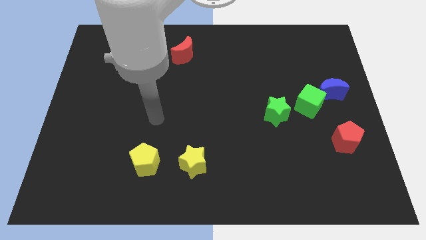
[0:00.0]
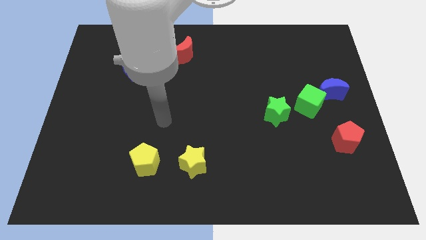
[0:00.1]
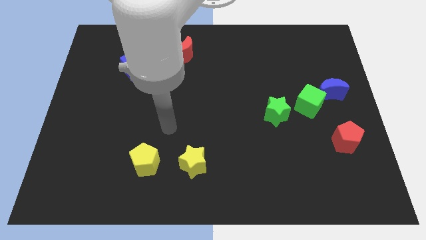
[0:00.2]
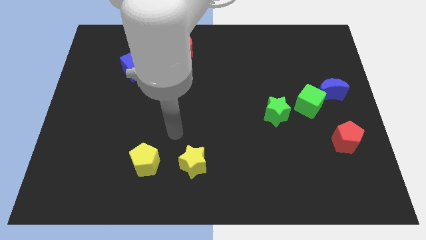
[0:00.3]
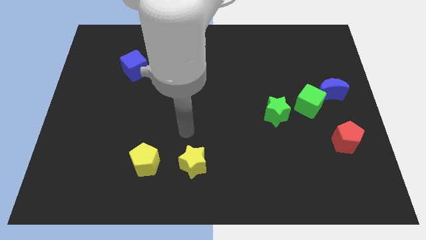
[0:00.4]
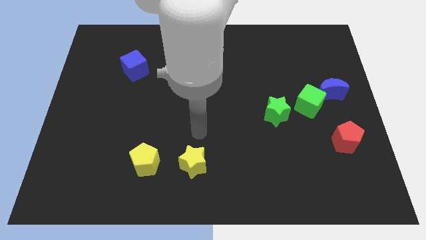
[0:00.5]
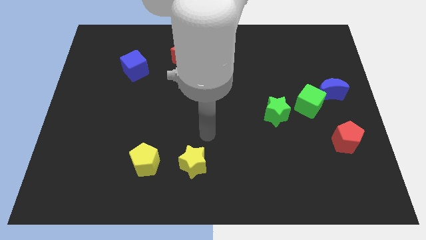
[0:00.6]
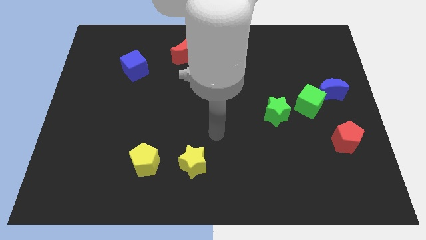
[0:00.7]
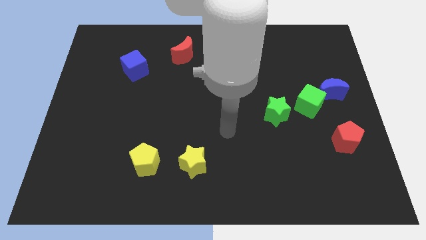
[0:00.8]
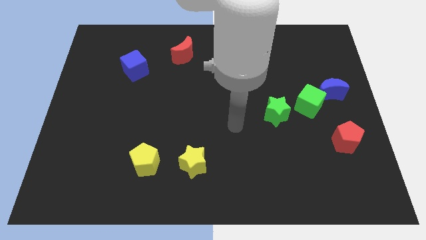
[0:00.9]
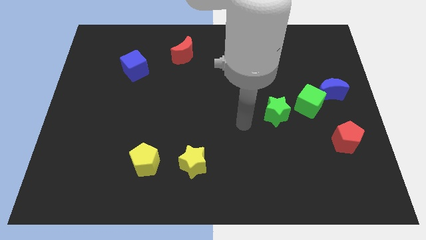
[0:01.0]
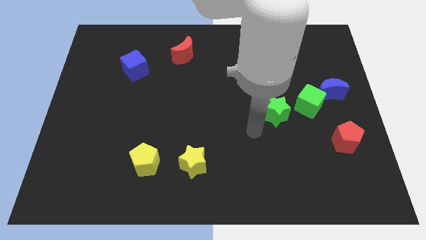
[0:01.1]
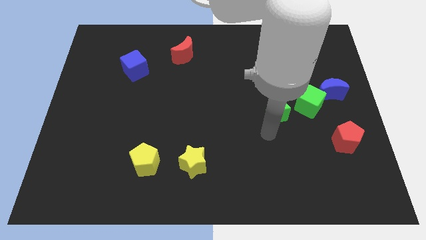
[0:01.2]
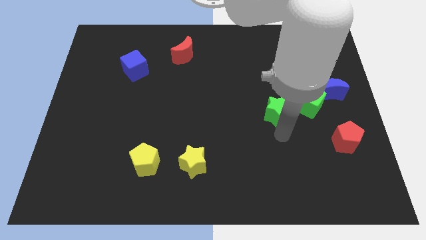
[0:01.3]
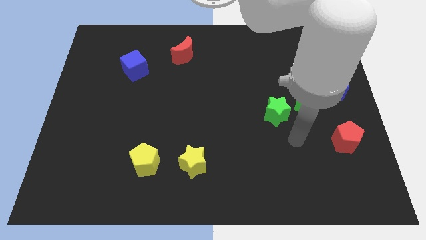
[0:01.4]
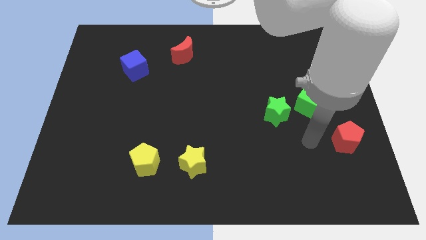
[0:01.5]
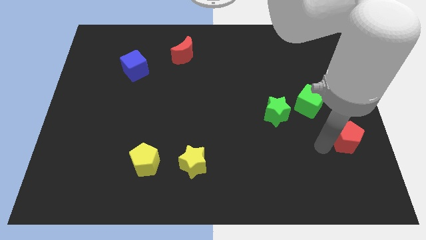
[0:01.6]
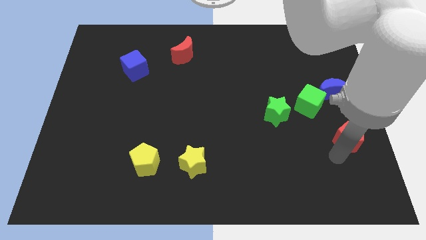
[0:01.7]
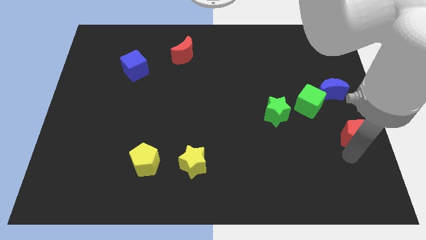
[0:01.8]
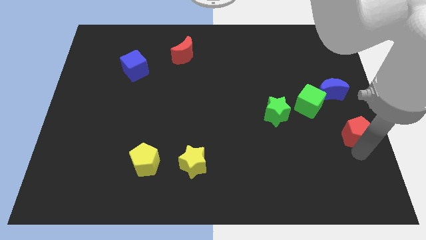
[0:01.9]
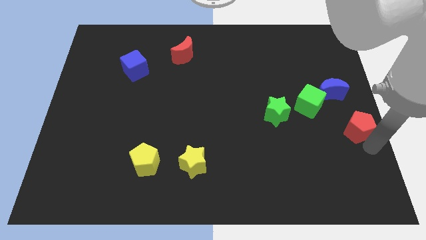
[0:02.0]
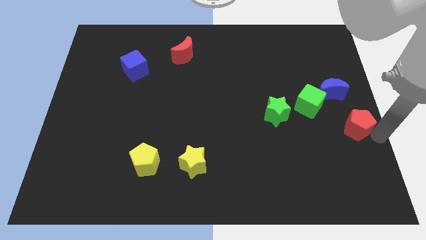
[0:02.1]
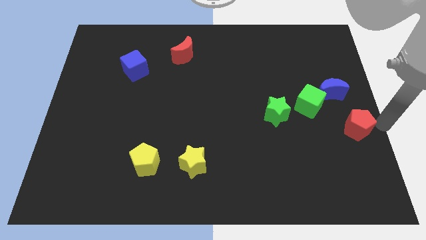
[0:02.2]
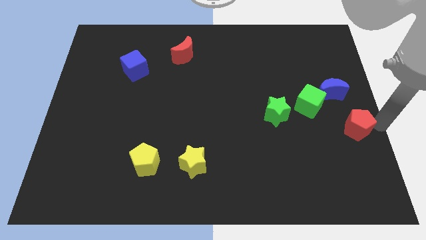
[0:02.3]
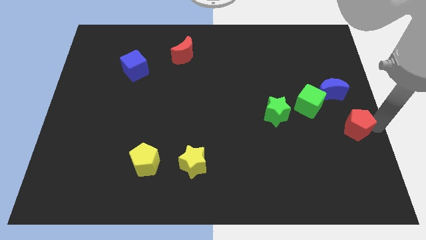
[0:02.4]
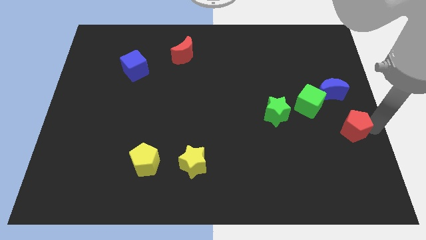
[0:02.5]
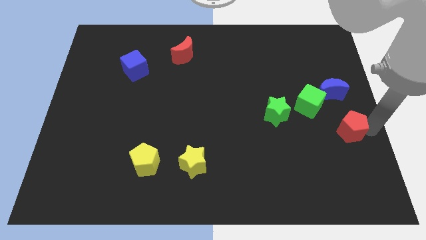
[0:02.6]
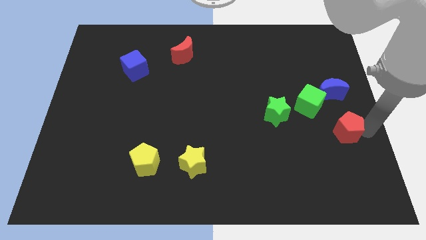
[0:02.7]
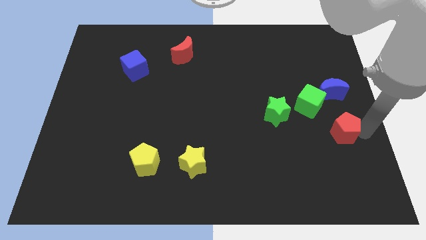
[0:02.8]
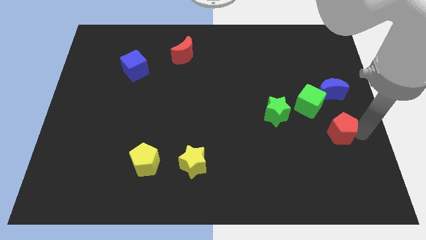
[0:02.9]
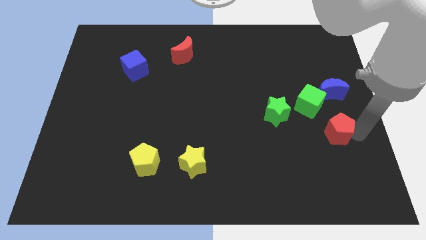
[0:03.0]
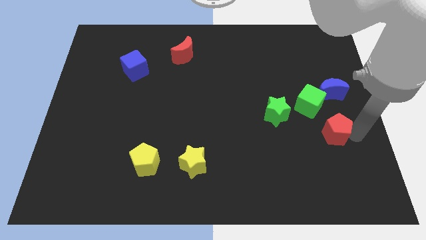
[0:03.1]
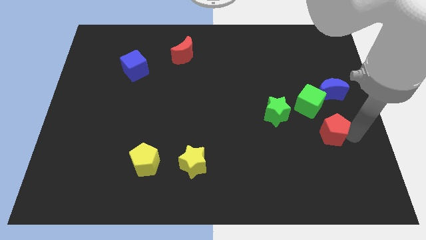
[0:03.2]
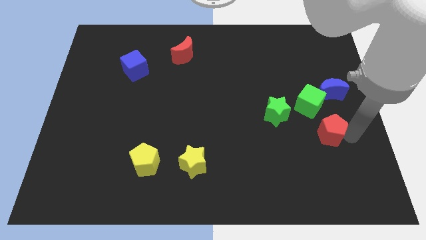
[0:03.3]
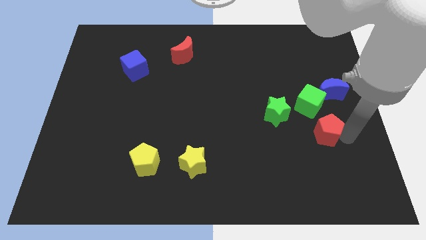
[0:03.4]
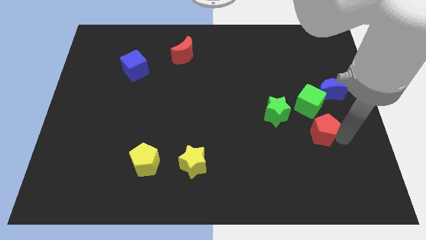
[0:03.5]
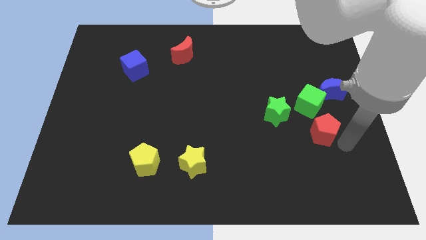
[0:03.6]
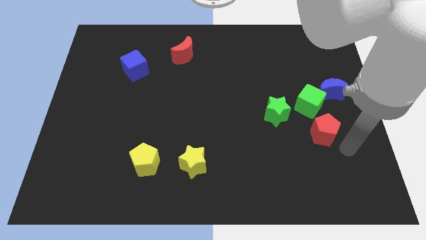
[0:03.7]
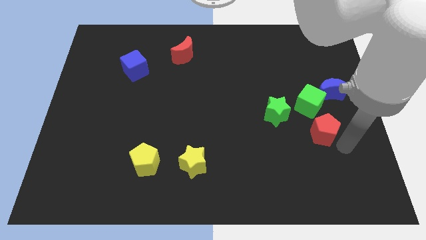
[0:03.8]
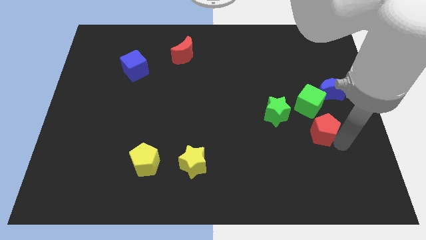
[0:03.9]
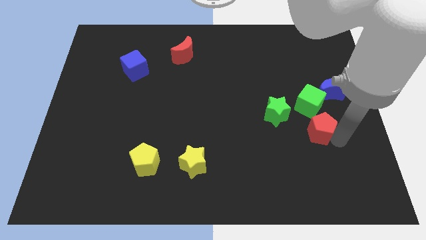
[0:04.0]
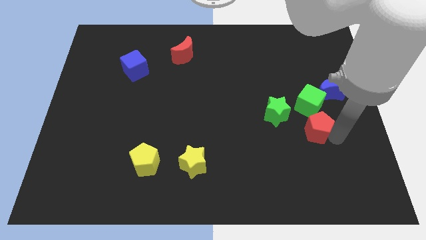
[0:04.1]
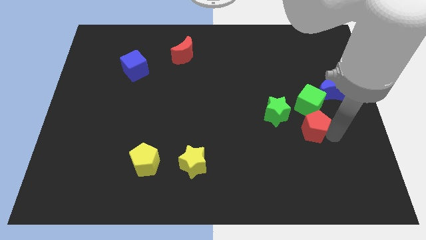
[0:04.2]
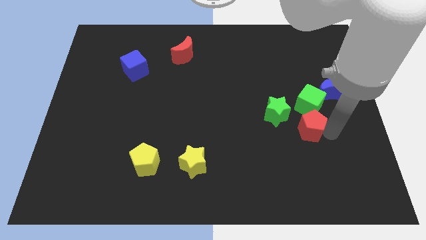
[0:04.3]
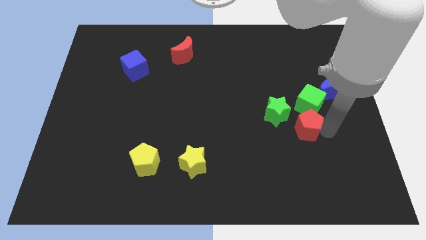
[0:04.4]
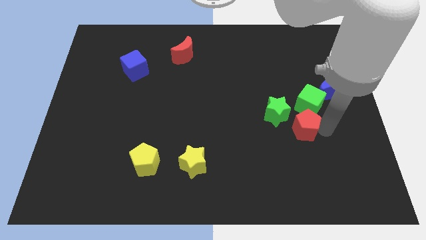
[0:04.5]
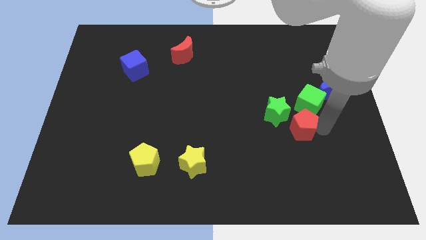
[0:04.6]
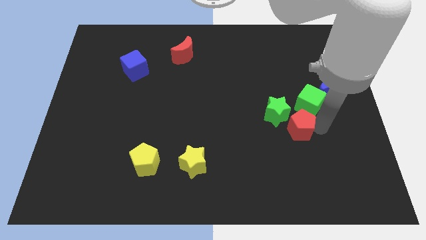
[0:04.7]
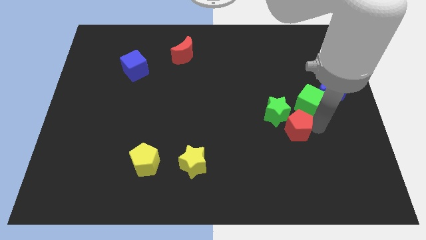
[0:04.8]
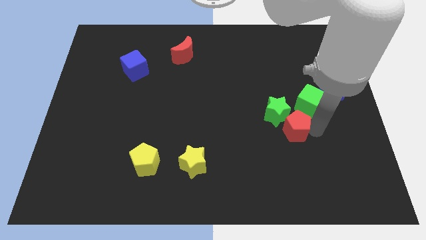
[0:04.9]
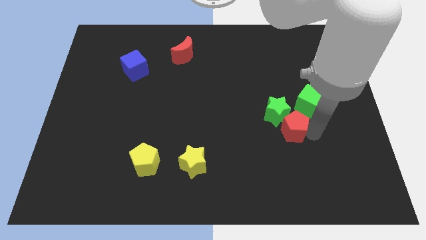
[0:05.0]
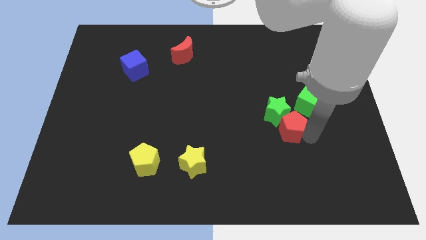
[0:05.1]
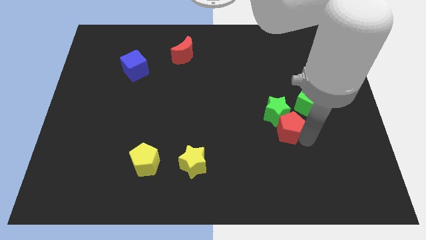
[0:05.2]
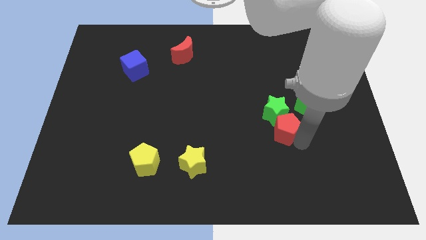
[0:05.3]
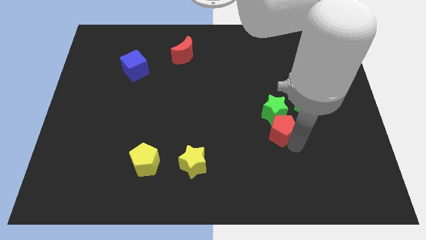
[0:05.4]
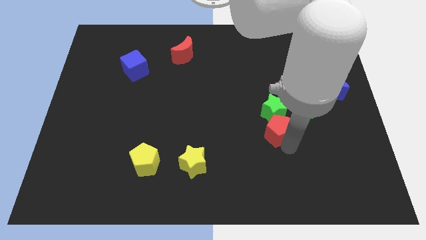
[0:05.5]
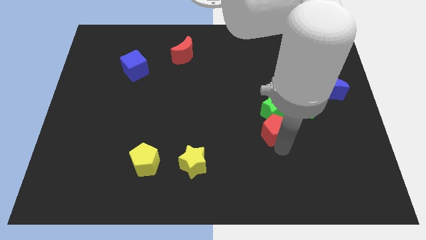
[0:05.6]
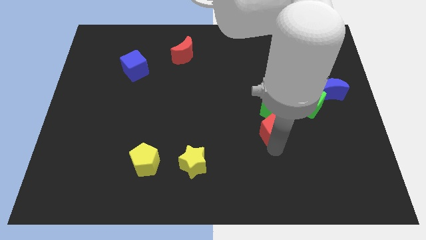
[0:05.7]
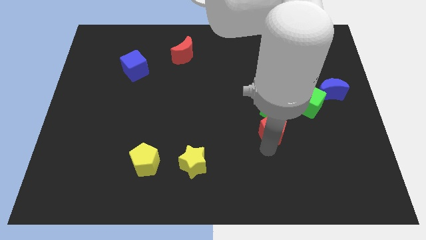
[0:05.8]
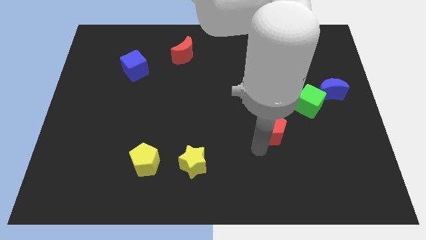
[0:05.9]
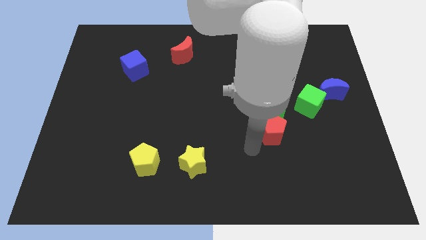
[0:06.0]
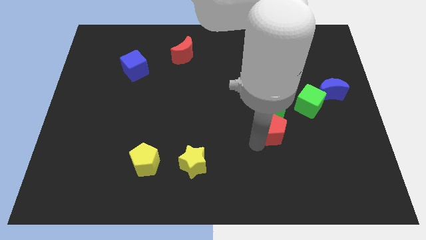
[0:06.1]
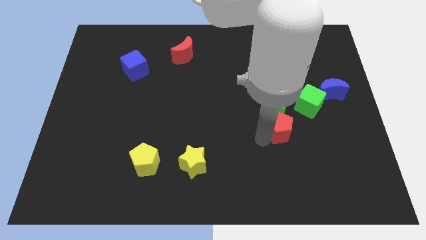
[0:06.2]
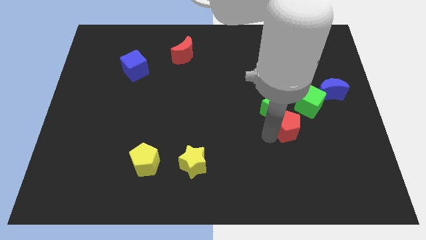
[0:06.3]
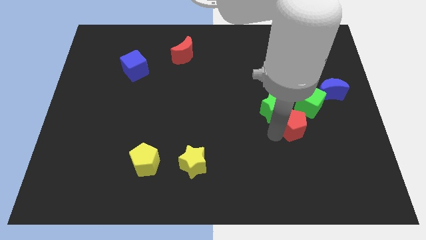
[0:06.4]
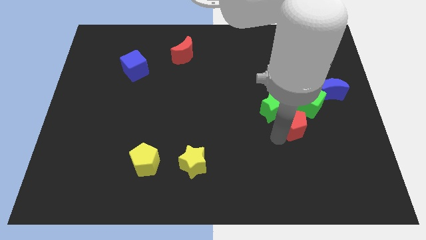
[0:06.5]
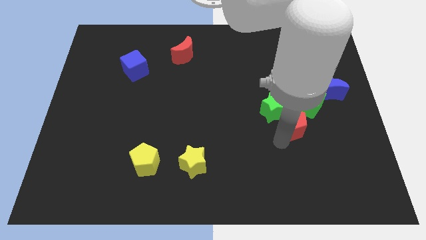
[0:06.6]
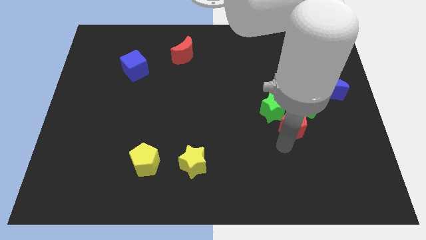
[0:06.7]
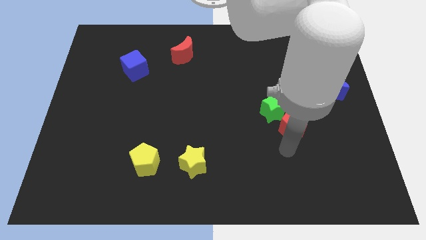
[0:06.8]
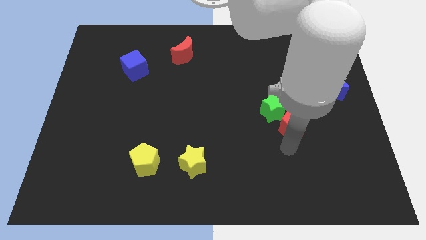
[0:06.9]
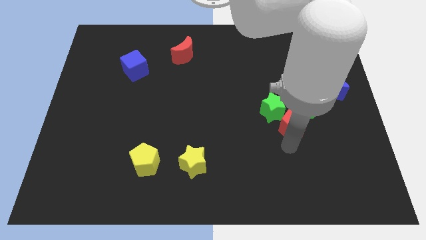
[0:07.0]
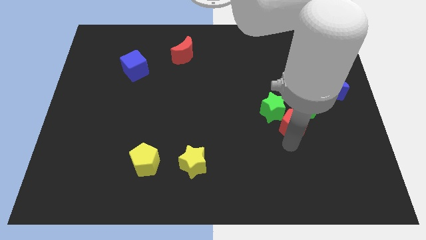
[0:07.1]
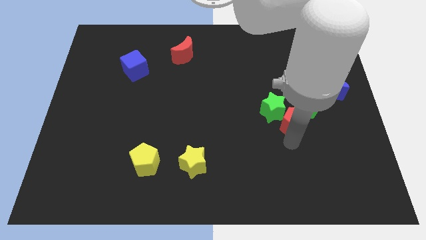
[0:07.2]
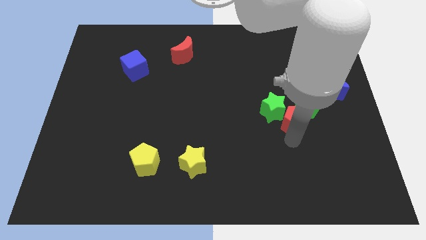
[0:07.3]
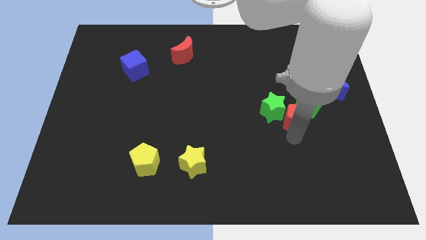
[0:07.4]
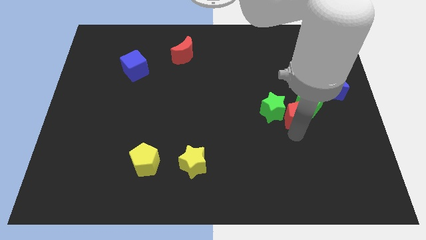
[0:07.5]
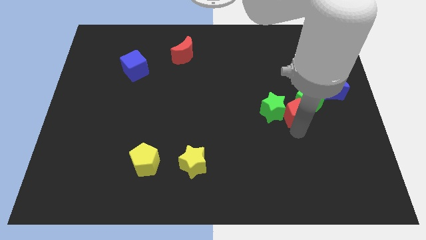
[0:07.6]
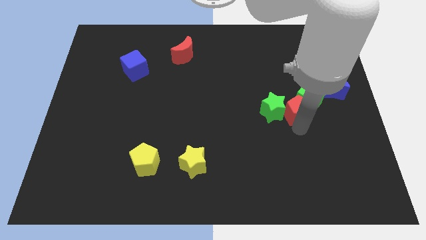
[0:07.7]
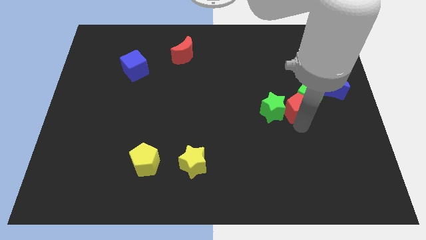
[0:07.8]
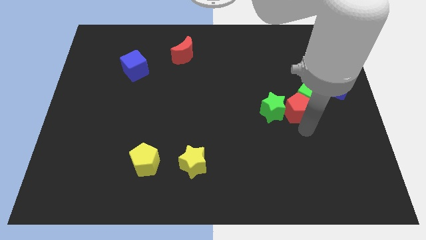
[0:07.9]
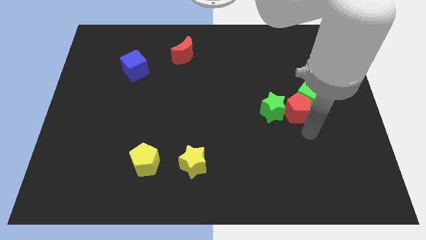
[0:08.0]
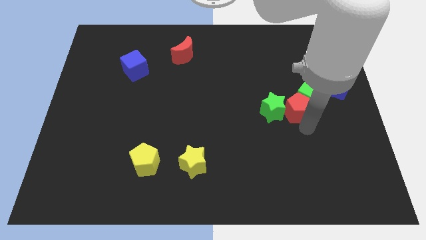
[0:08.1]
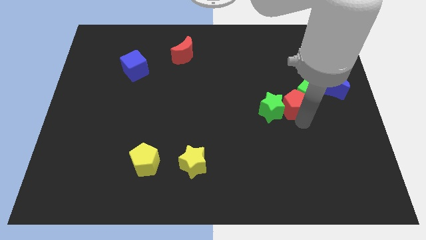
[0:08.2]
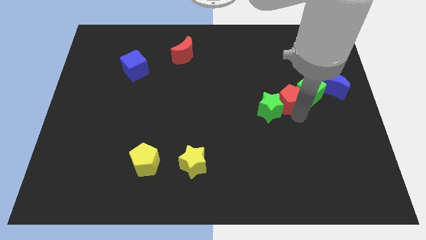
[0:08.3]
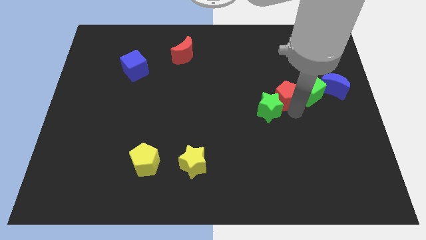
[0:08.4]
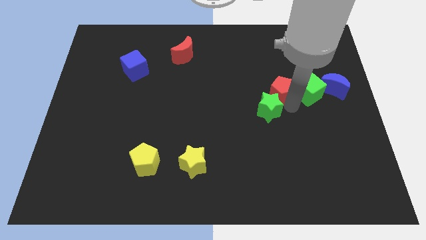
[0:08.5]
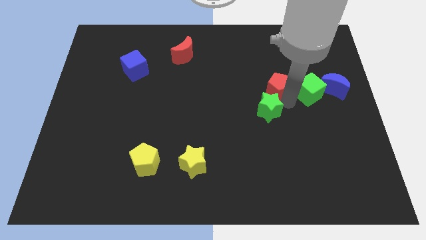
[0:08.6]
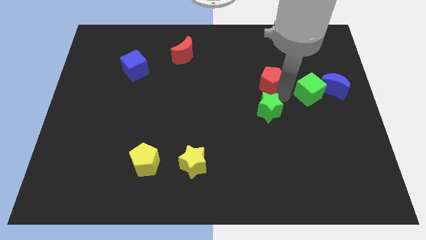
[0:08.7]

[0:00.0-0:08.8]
push the red pentagon up and left
